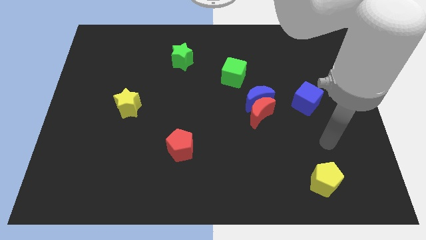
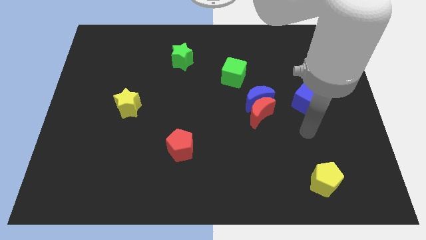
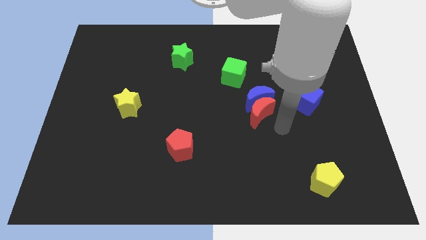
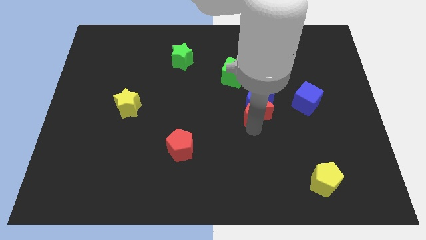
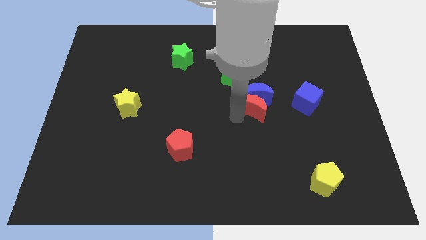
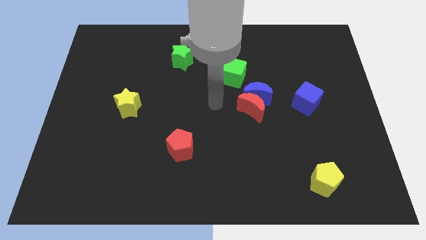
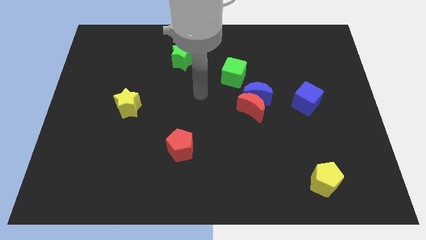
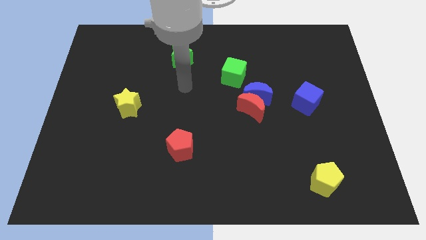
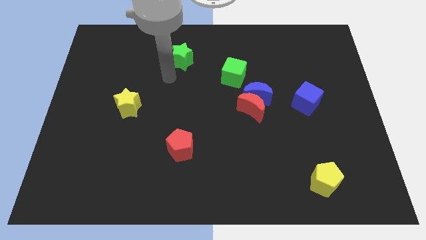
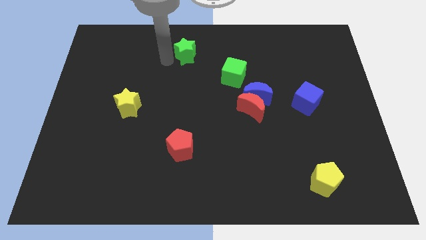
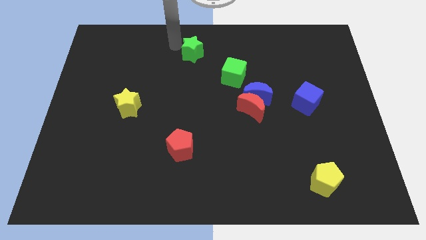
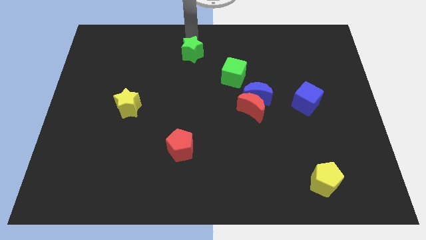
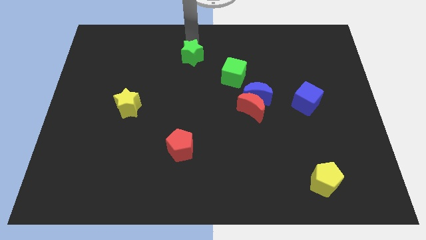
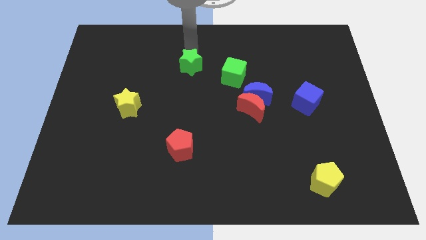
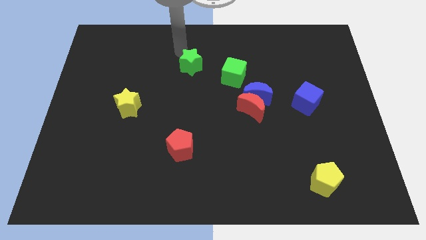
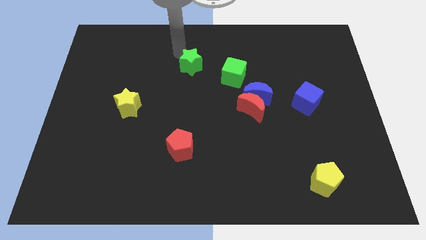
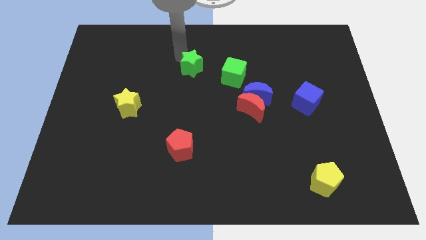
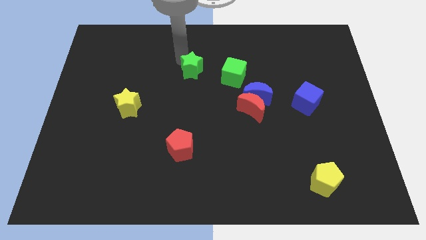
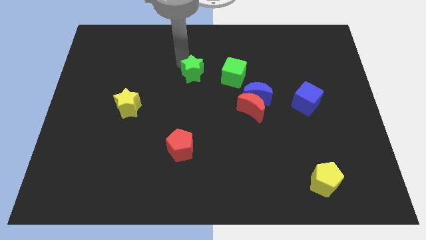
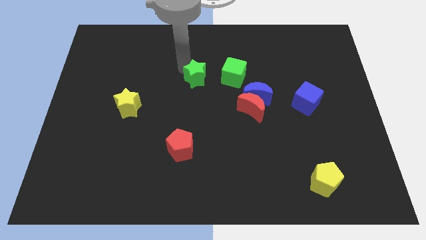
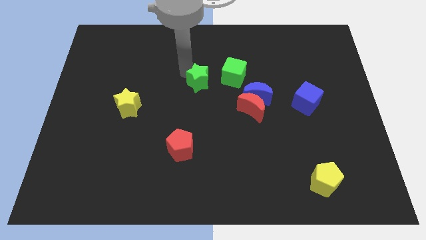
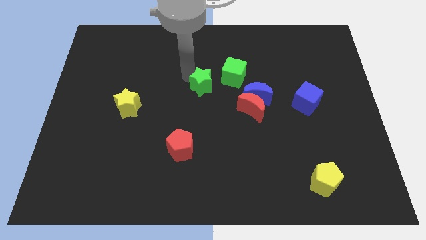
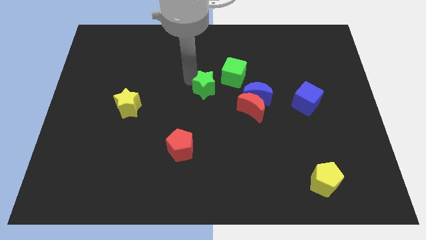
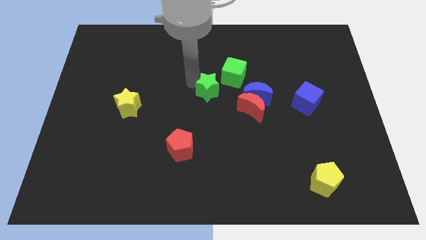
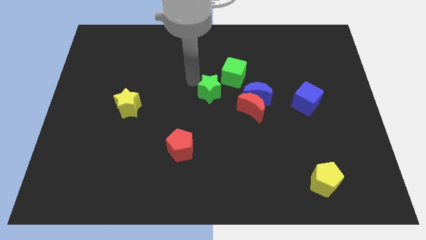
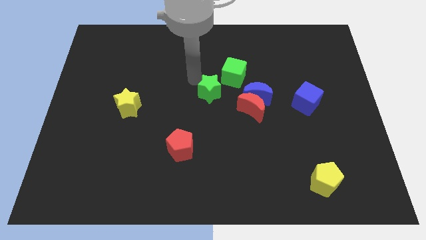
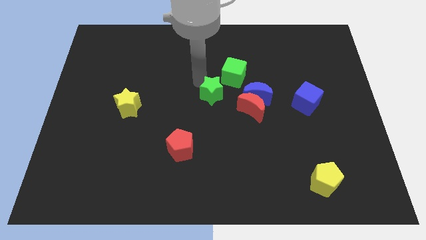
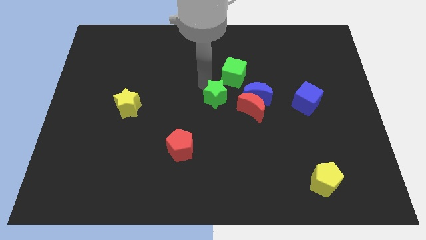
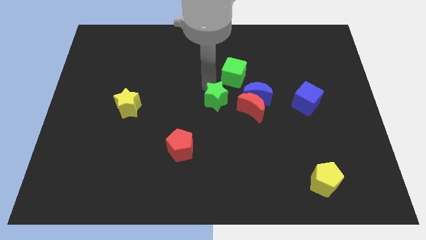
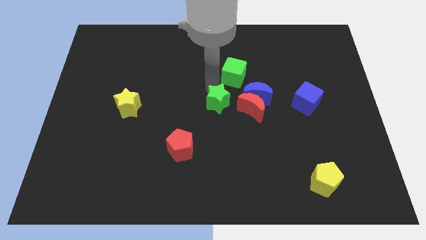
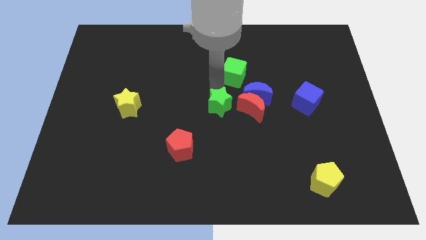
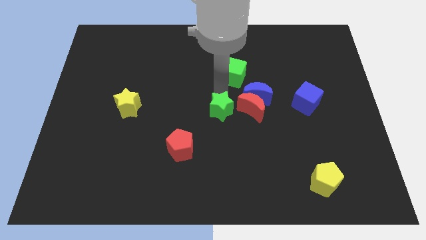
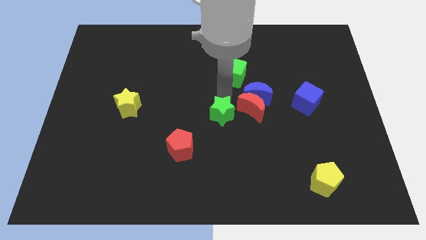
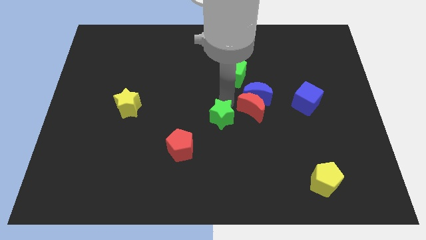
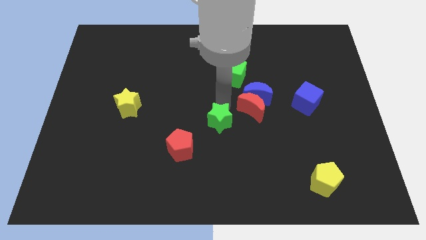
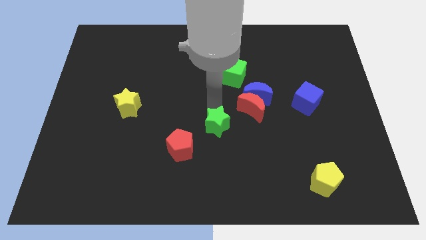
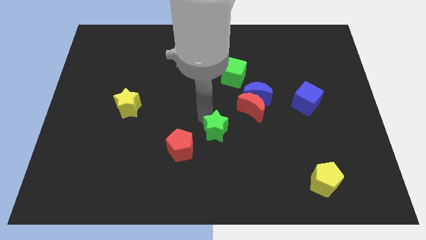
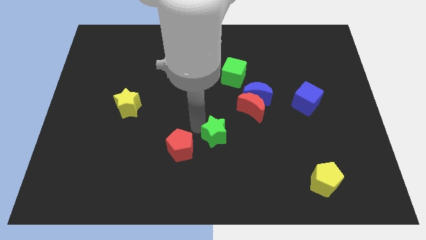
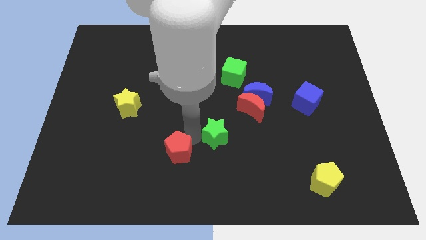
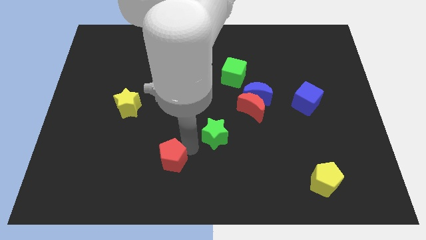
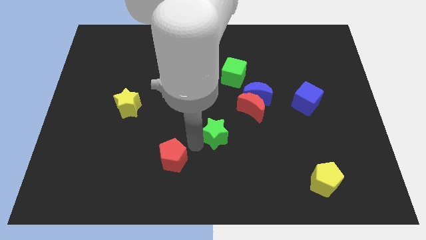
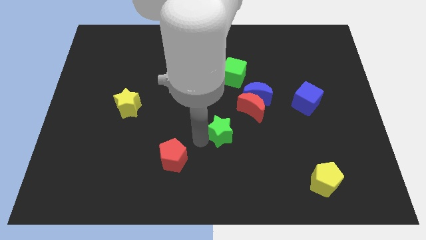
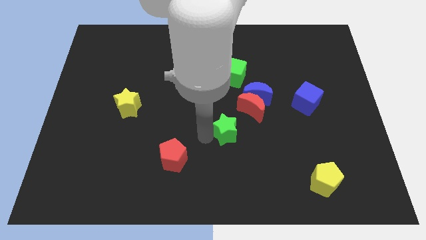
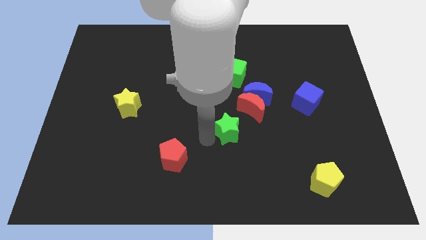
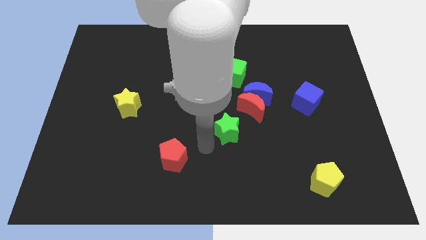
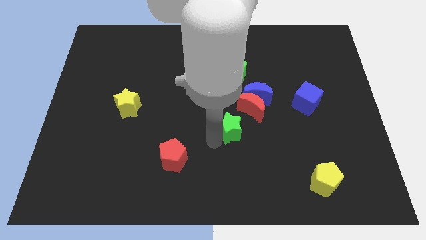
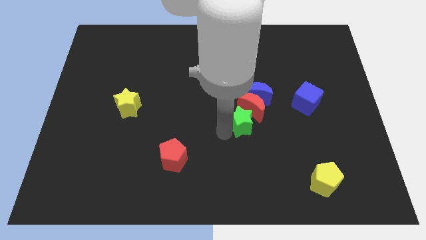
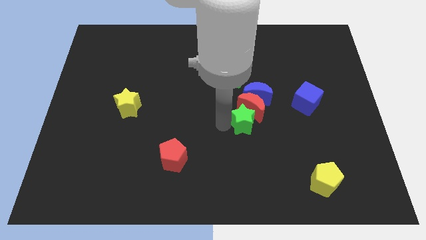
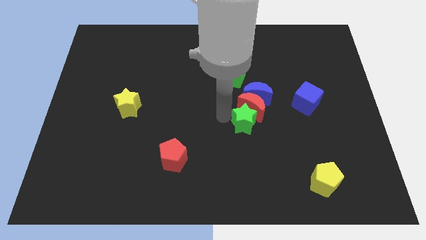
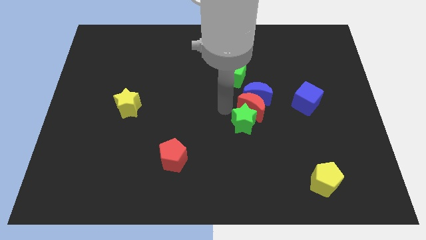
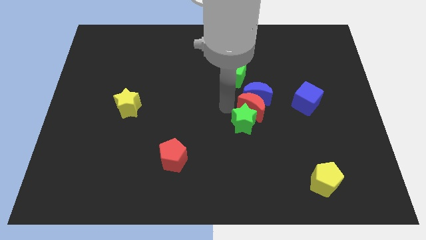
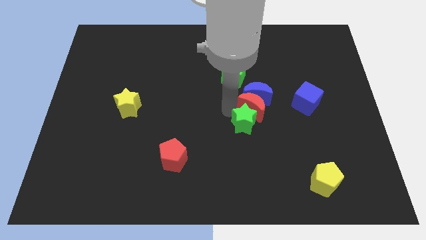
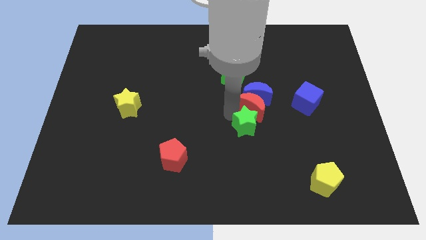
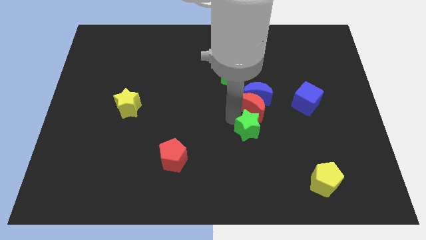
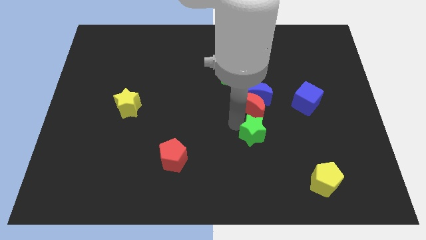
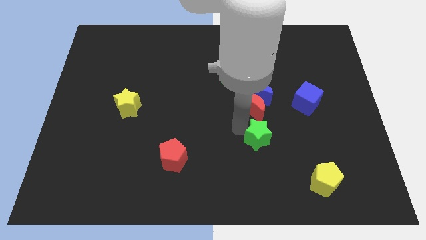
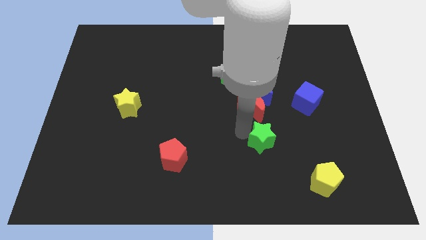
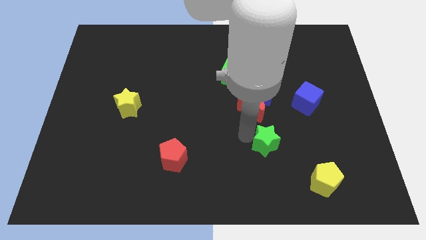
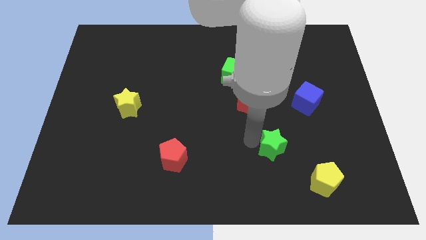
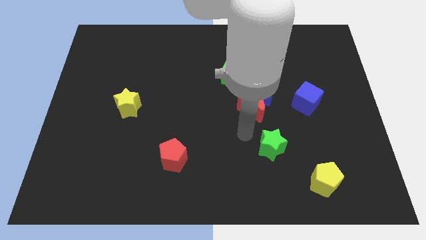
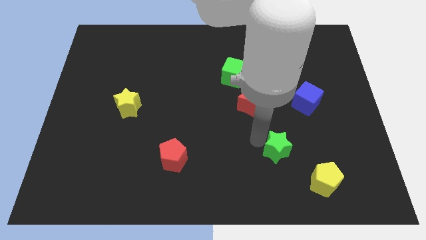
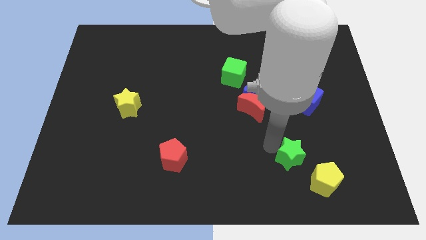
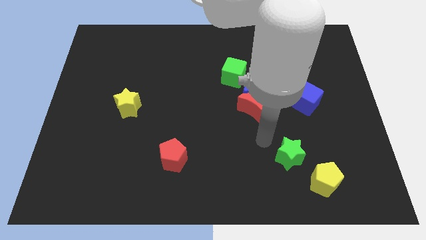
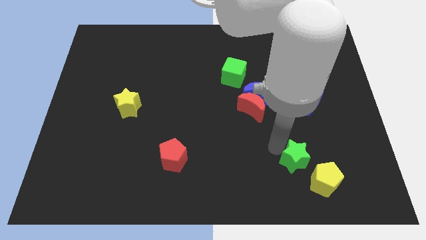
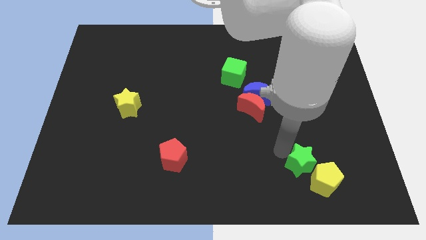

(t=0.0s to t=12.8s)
slide the green star close to the yellow pentagon

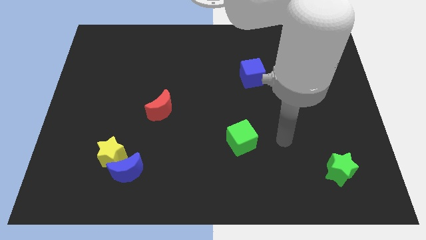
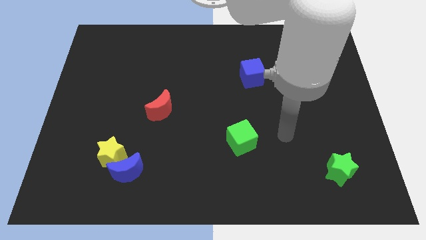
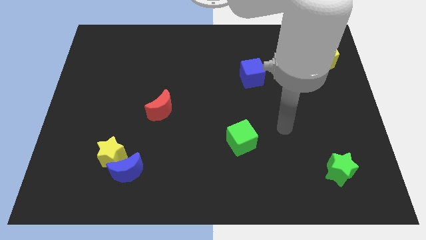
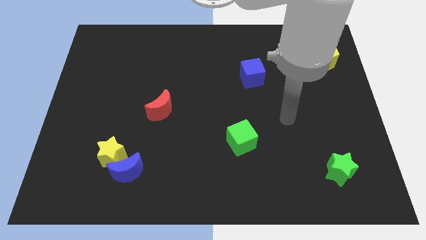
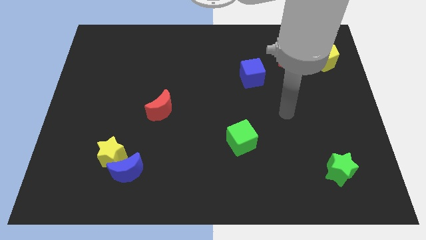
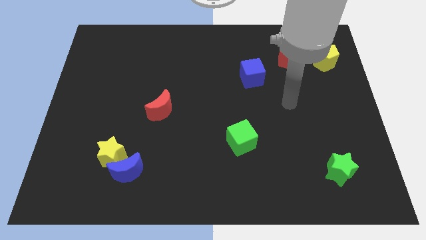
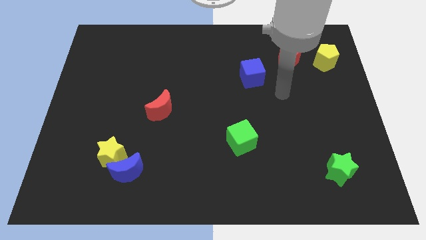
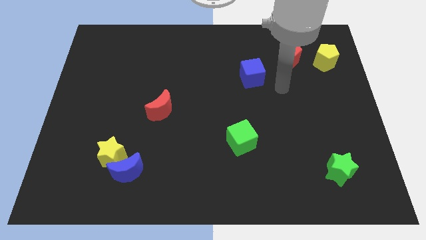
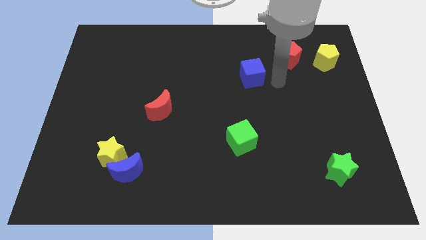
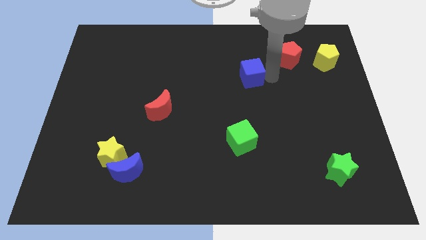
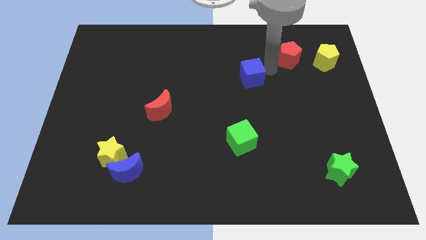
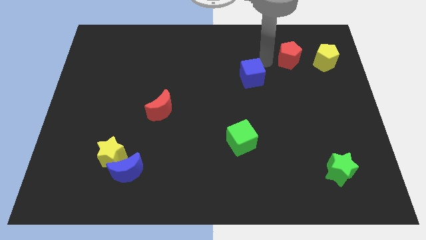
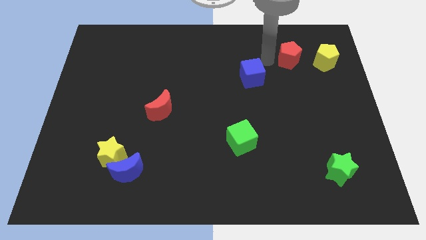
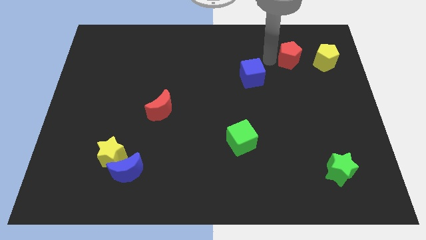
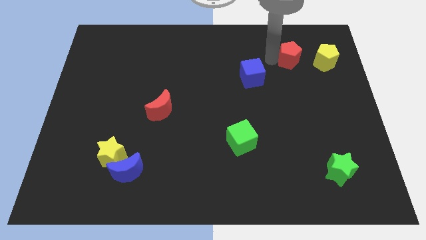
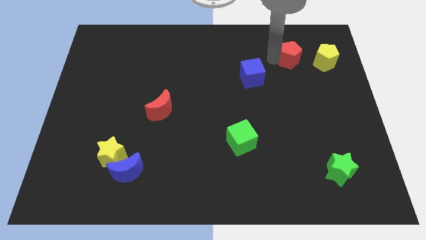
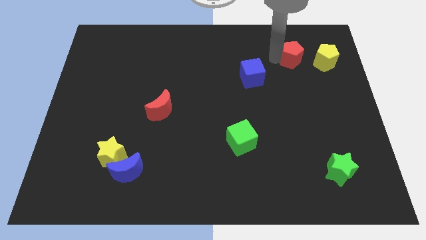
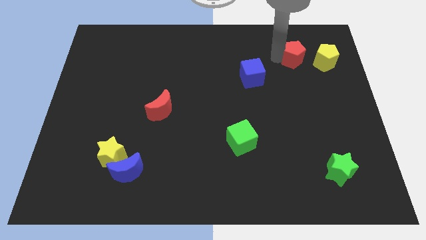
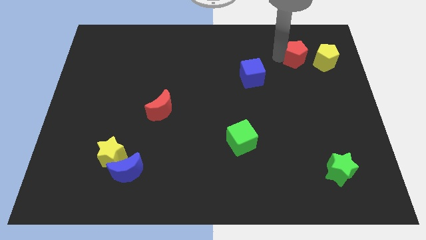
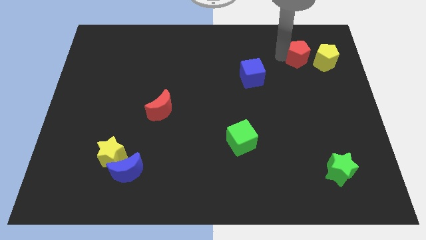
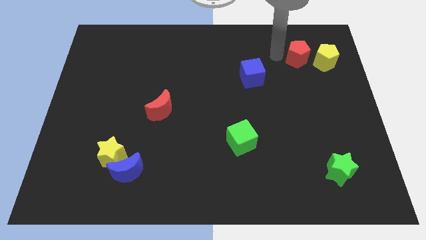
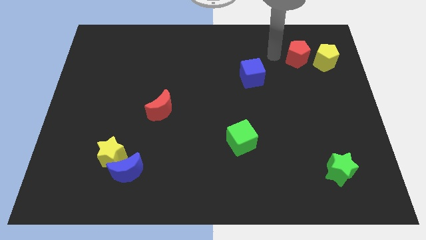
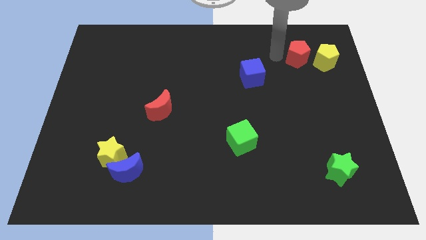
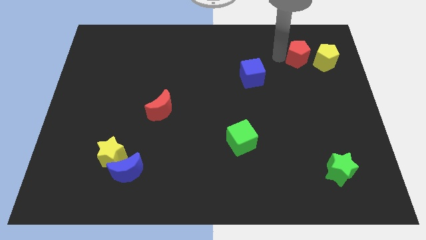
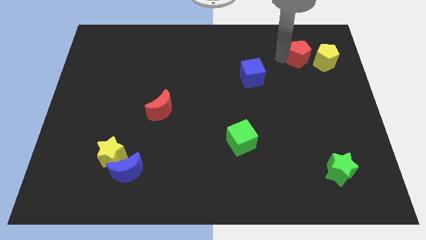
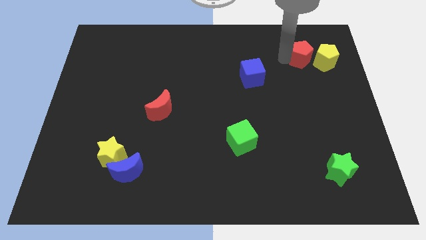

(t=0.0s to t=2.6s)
push the red pentagon towards the yellow pentagon
